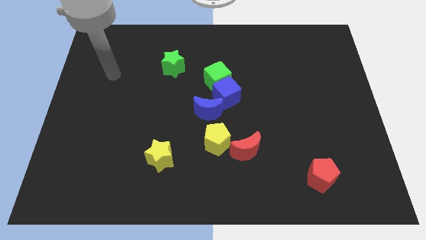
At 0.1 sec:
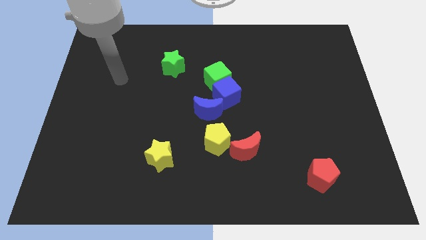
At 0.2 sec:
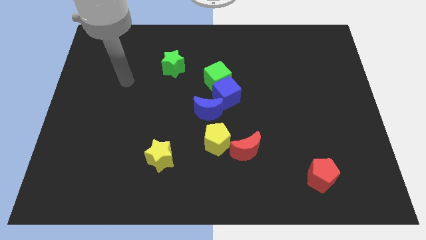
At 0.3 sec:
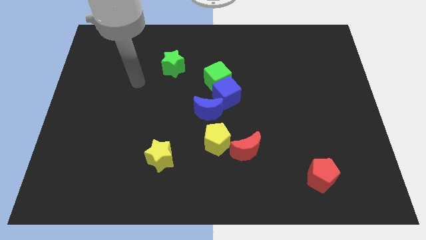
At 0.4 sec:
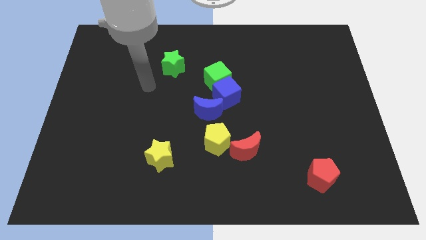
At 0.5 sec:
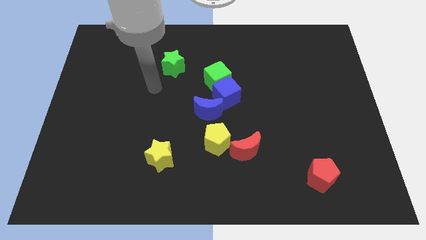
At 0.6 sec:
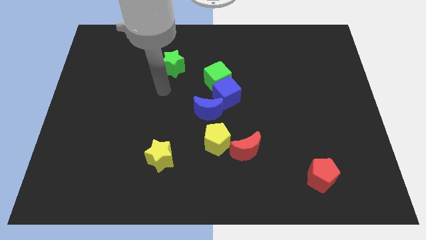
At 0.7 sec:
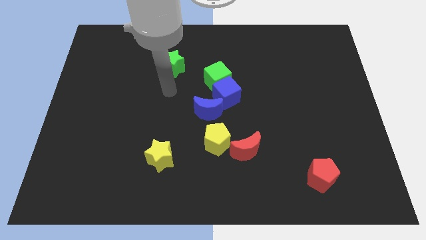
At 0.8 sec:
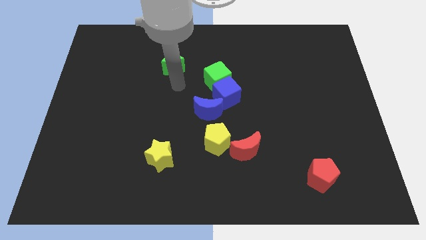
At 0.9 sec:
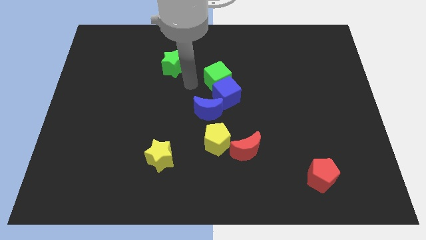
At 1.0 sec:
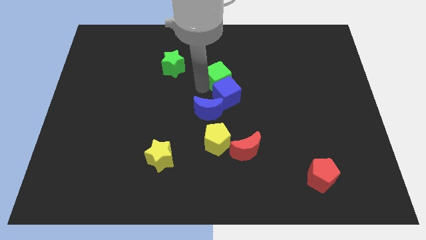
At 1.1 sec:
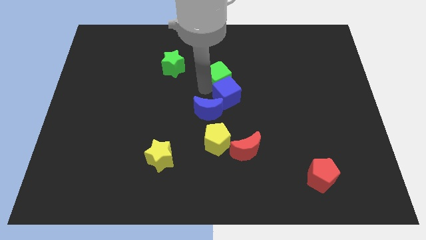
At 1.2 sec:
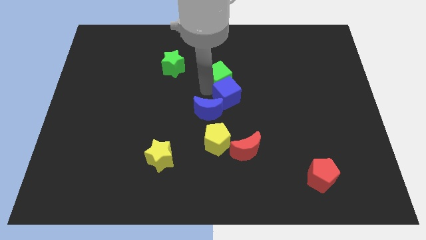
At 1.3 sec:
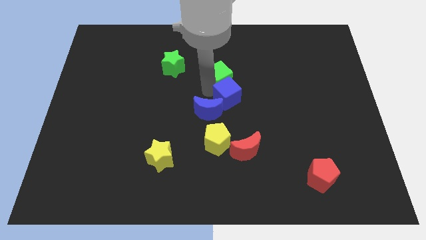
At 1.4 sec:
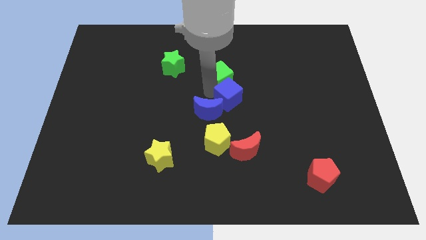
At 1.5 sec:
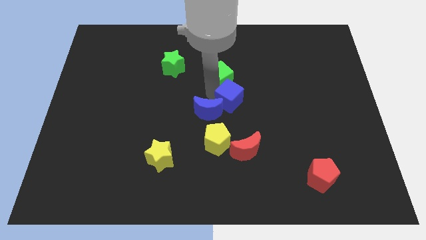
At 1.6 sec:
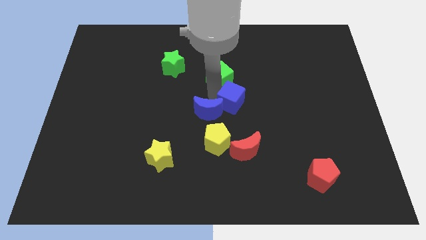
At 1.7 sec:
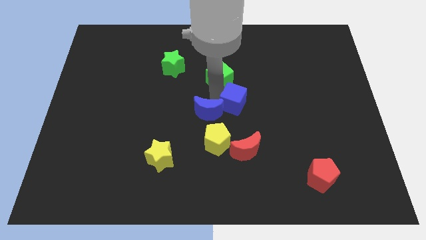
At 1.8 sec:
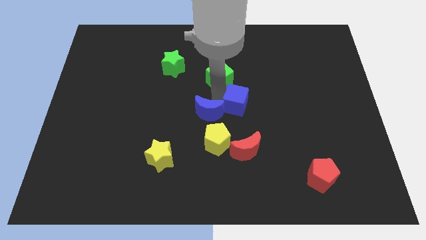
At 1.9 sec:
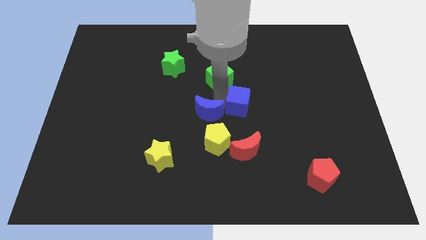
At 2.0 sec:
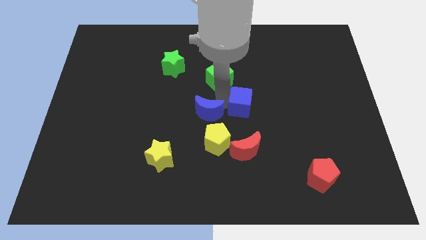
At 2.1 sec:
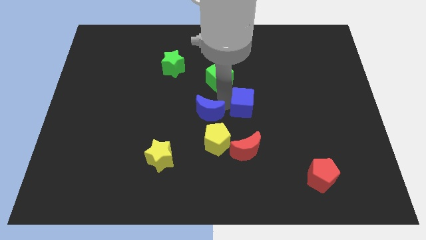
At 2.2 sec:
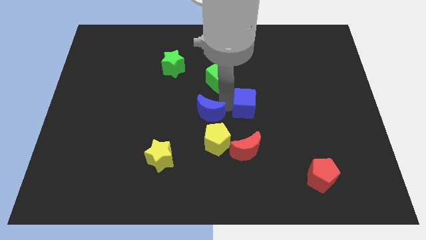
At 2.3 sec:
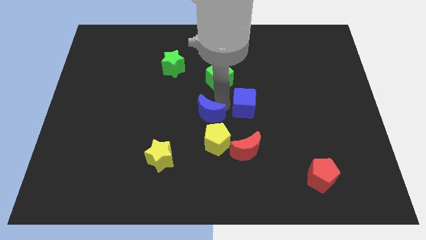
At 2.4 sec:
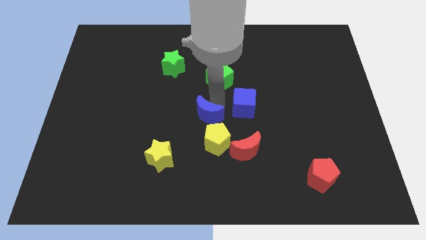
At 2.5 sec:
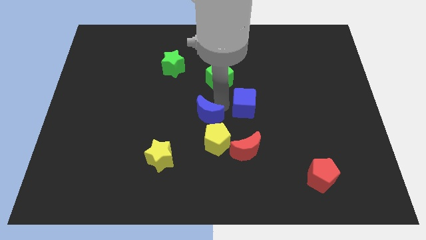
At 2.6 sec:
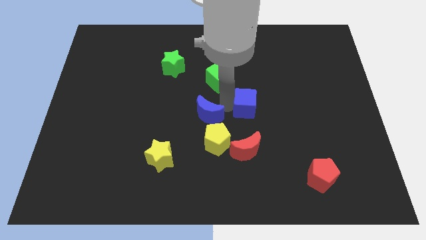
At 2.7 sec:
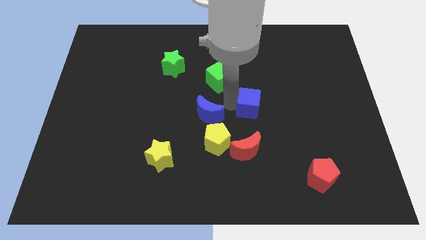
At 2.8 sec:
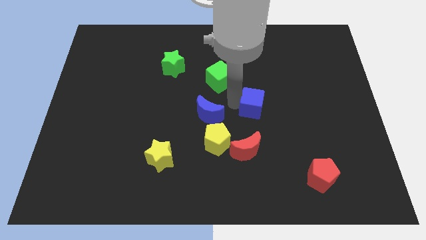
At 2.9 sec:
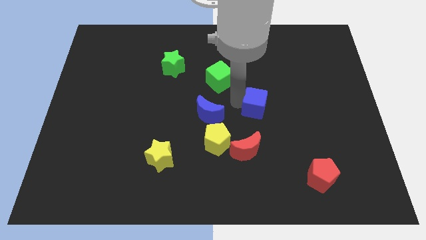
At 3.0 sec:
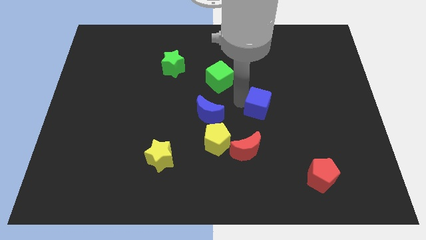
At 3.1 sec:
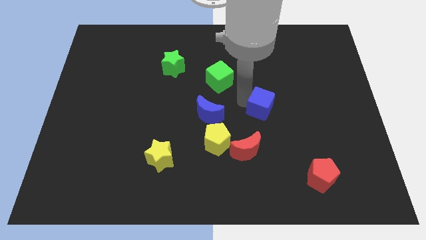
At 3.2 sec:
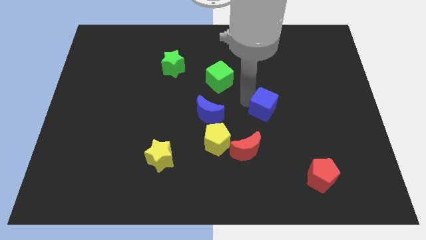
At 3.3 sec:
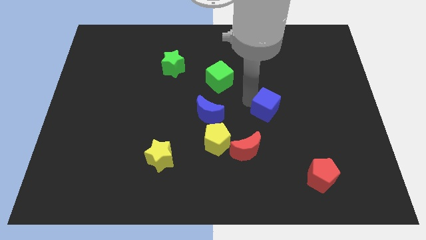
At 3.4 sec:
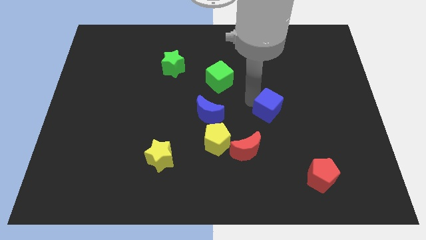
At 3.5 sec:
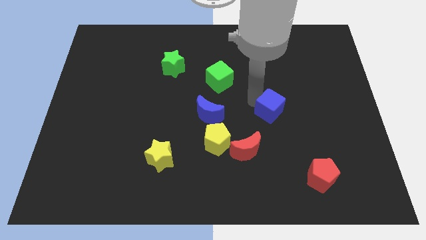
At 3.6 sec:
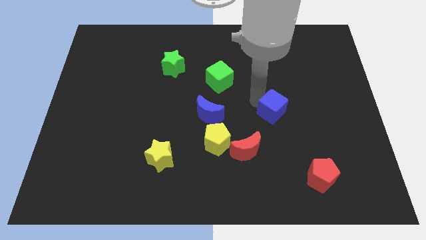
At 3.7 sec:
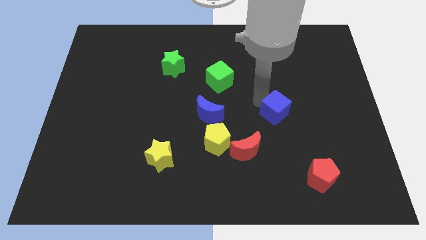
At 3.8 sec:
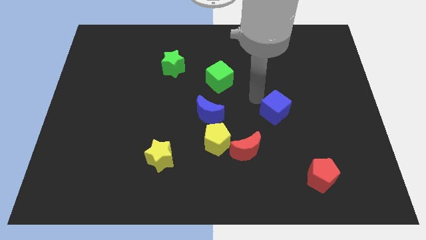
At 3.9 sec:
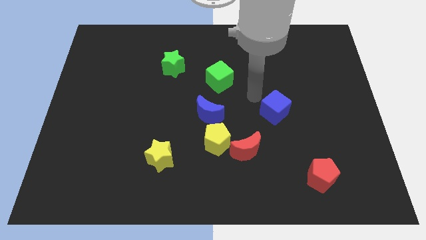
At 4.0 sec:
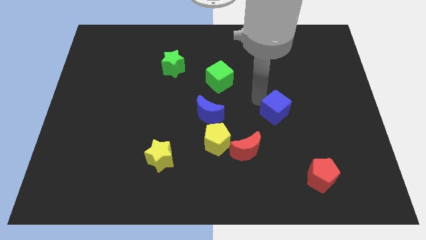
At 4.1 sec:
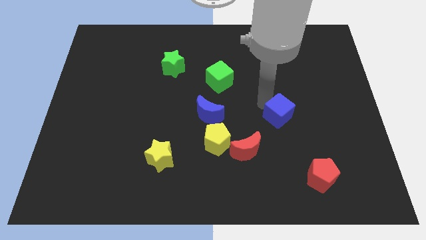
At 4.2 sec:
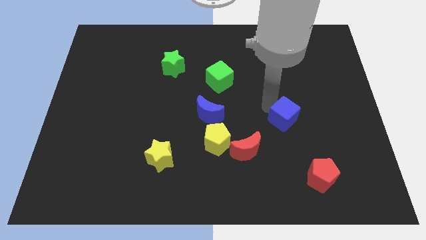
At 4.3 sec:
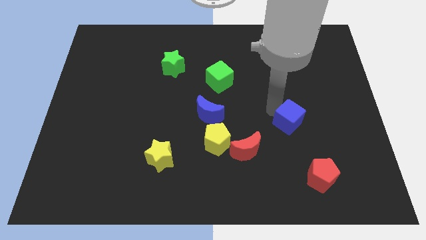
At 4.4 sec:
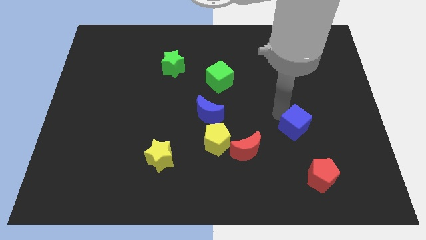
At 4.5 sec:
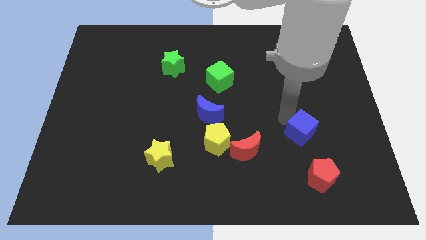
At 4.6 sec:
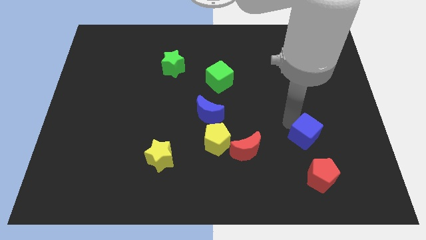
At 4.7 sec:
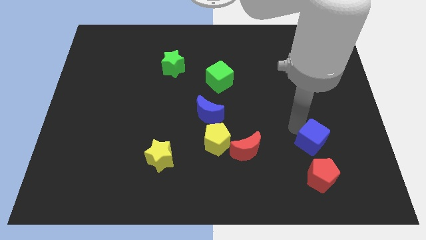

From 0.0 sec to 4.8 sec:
move the blue cube downwards and then to the right

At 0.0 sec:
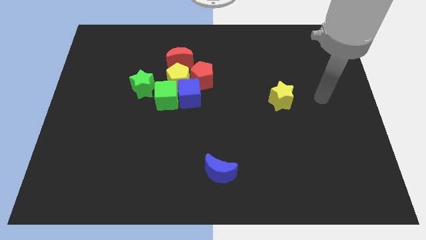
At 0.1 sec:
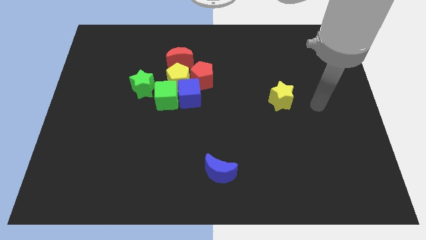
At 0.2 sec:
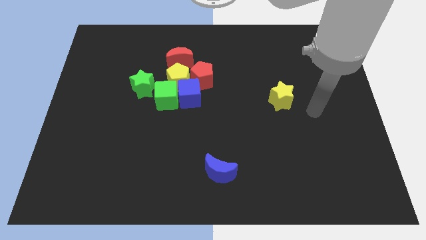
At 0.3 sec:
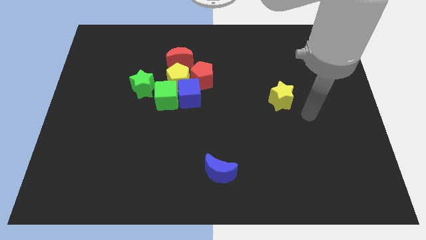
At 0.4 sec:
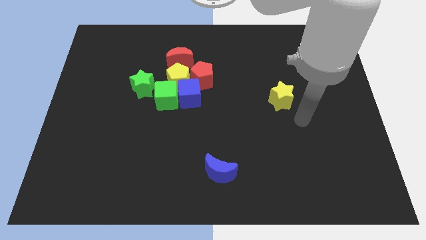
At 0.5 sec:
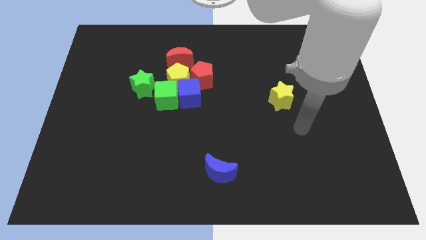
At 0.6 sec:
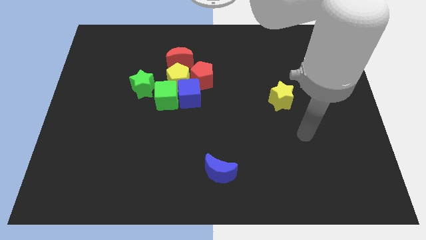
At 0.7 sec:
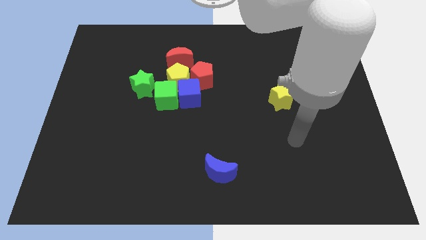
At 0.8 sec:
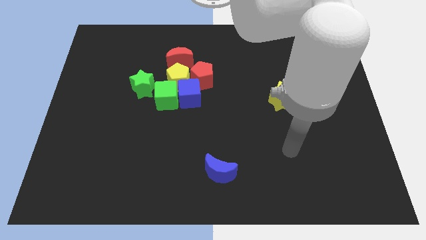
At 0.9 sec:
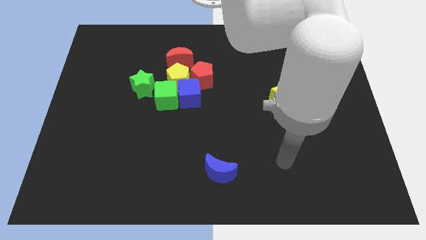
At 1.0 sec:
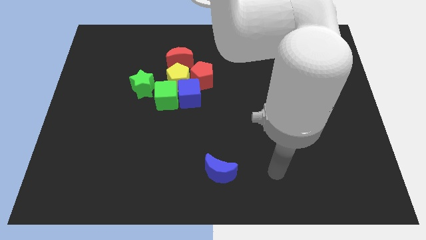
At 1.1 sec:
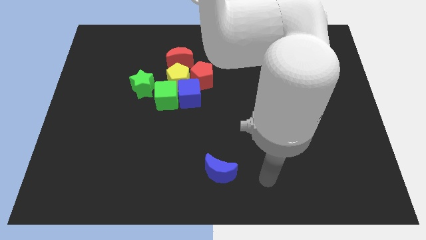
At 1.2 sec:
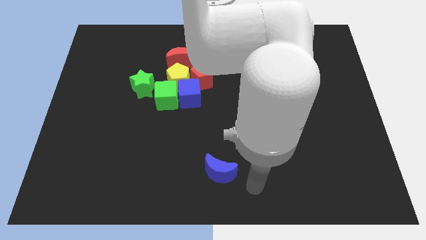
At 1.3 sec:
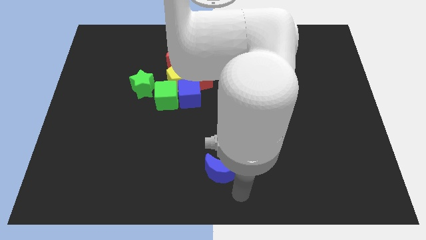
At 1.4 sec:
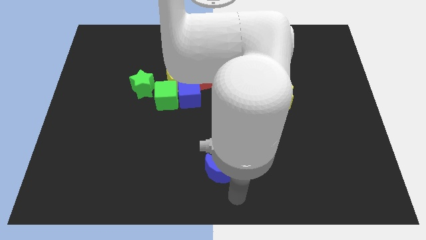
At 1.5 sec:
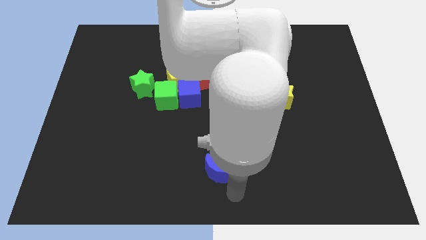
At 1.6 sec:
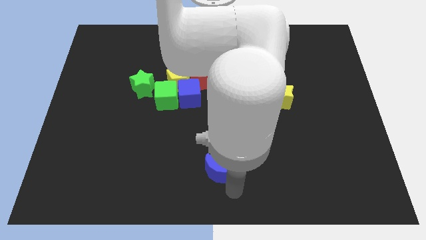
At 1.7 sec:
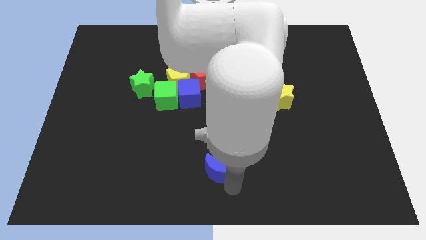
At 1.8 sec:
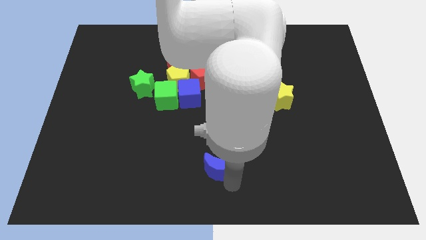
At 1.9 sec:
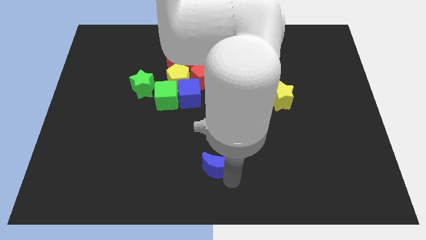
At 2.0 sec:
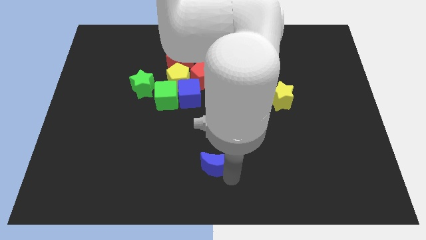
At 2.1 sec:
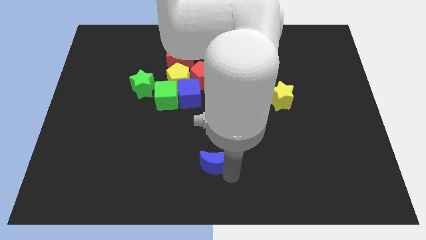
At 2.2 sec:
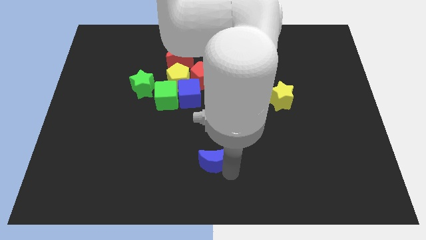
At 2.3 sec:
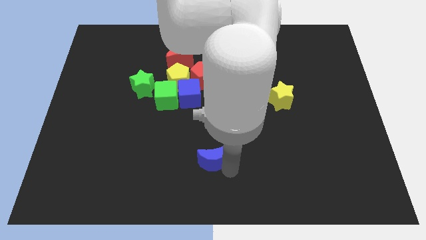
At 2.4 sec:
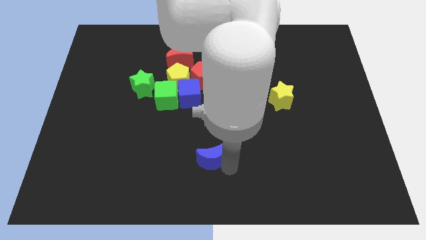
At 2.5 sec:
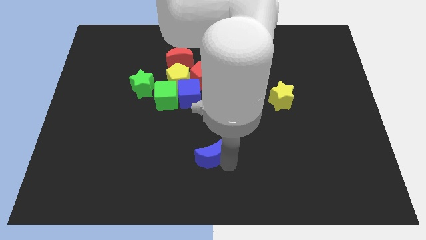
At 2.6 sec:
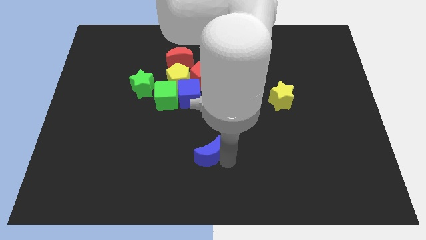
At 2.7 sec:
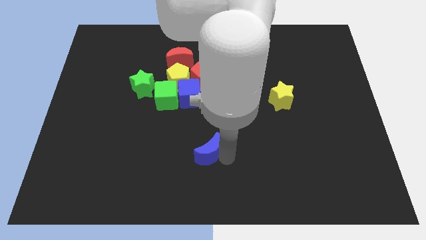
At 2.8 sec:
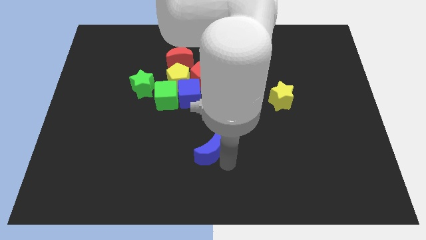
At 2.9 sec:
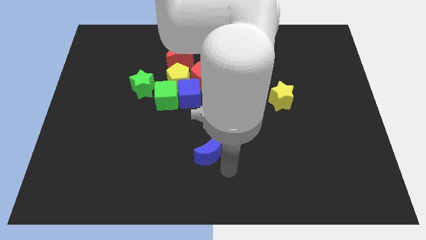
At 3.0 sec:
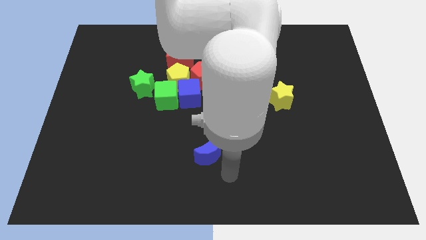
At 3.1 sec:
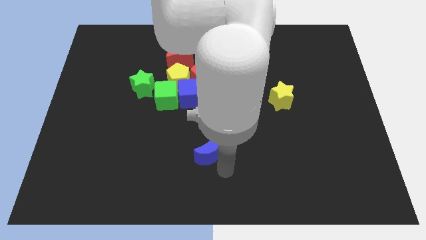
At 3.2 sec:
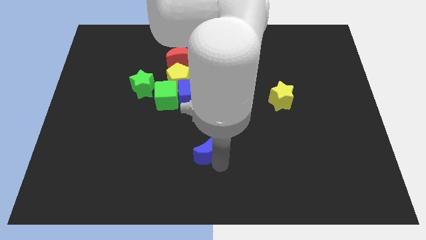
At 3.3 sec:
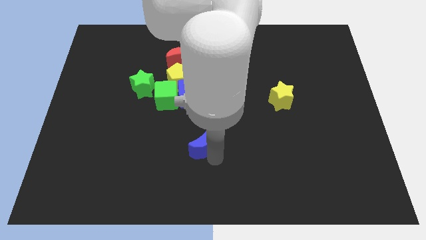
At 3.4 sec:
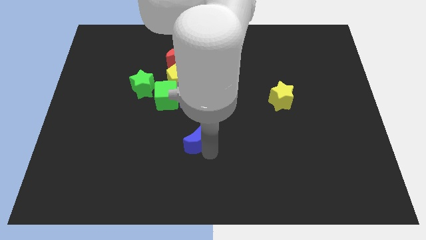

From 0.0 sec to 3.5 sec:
slide the blue moon upwards and to the left diagonally somewhat
